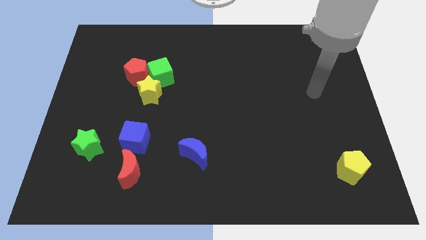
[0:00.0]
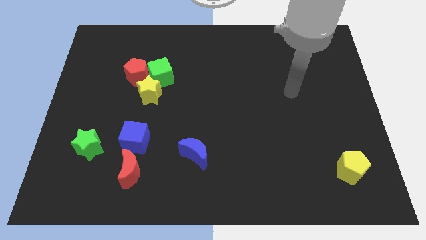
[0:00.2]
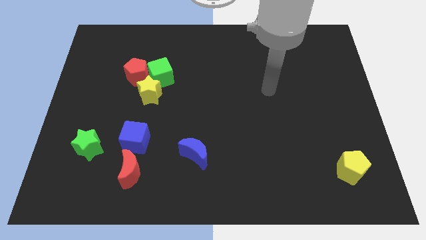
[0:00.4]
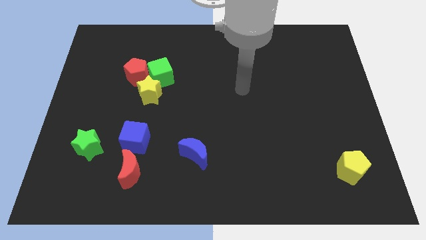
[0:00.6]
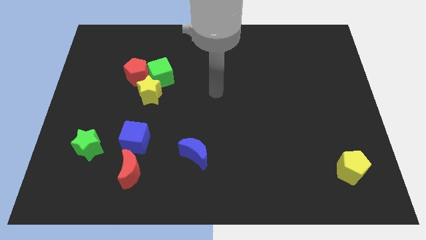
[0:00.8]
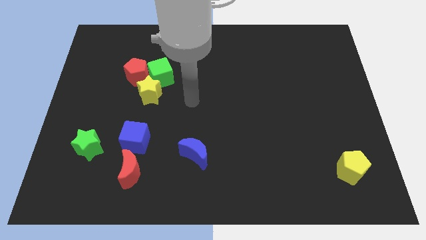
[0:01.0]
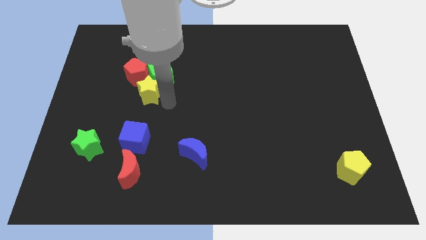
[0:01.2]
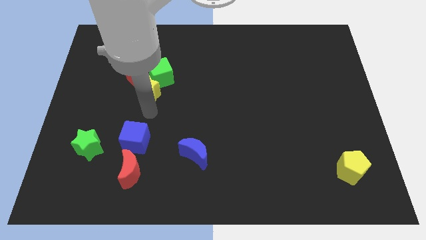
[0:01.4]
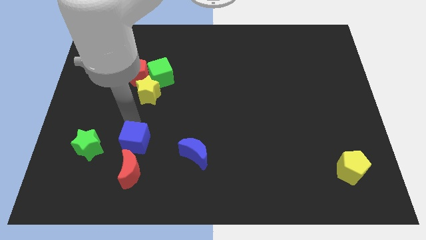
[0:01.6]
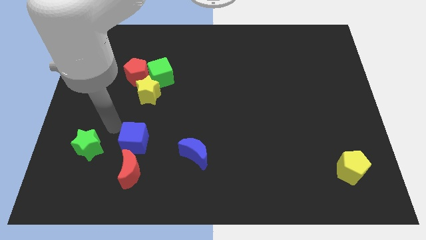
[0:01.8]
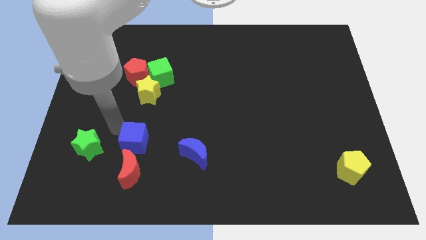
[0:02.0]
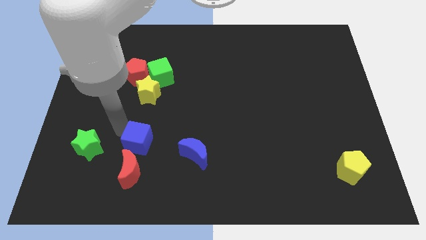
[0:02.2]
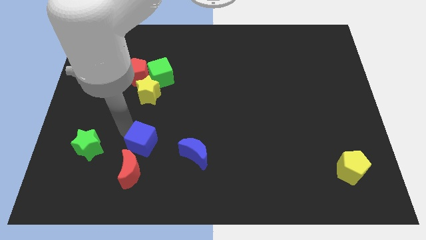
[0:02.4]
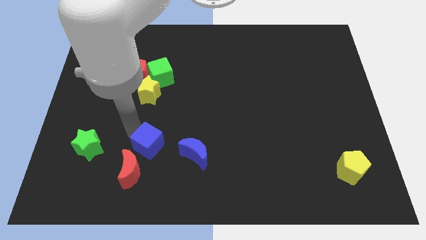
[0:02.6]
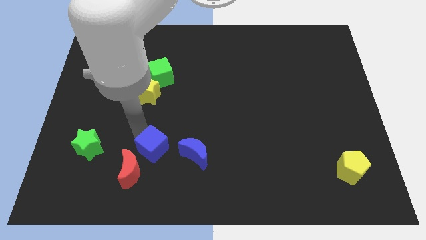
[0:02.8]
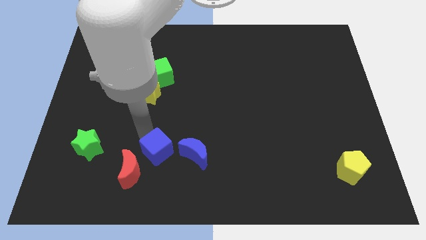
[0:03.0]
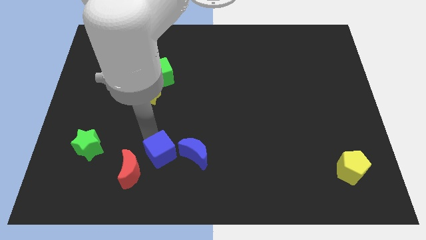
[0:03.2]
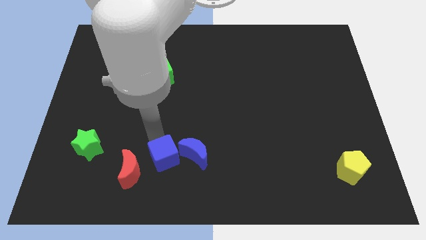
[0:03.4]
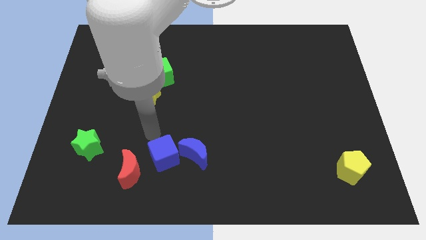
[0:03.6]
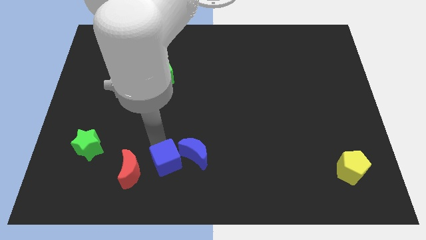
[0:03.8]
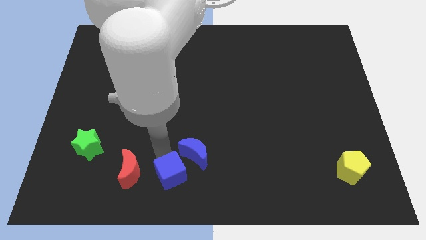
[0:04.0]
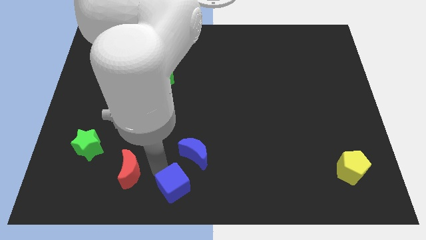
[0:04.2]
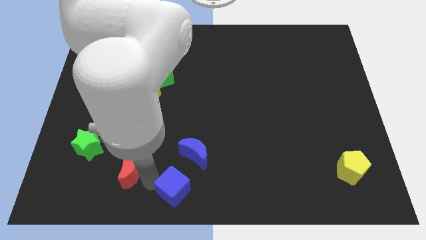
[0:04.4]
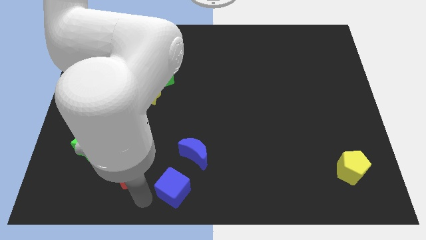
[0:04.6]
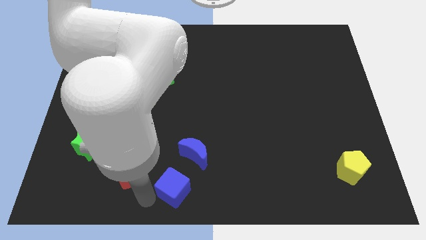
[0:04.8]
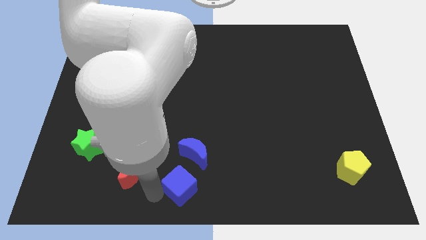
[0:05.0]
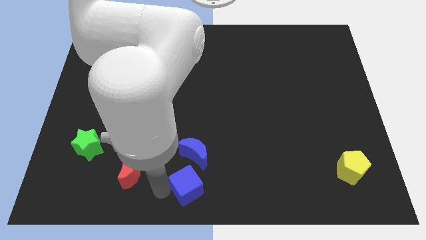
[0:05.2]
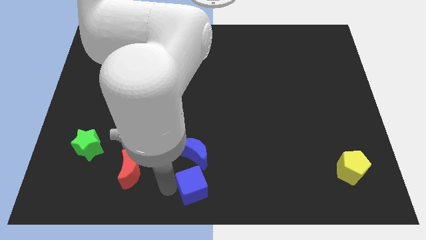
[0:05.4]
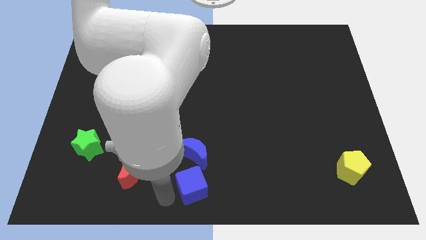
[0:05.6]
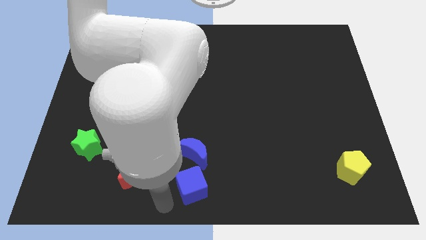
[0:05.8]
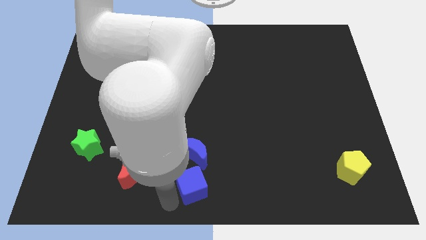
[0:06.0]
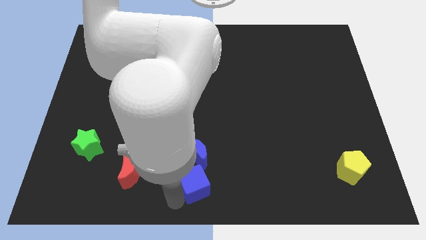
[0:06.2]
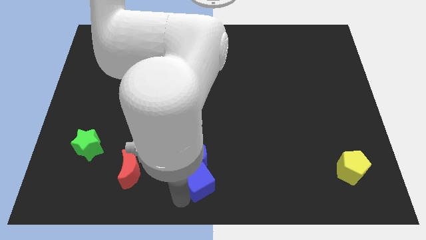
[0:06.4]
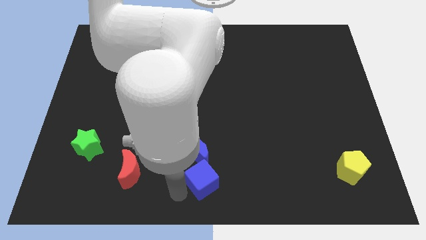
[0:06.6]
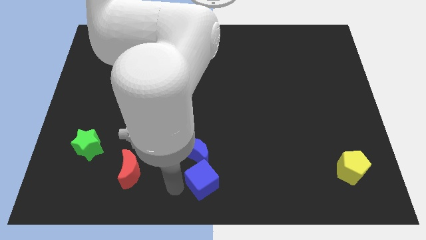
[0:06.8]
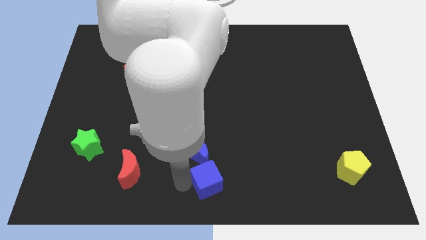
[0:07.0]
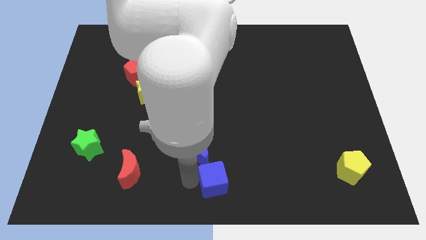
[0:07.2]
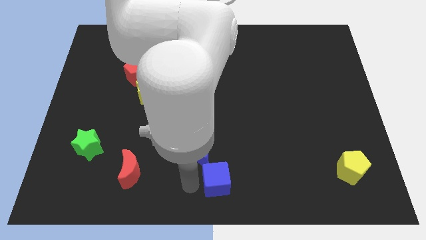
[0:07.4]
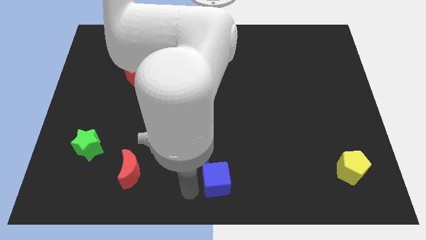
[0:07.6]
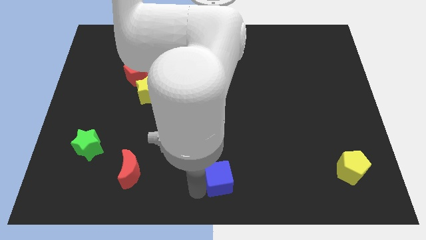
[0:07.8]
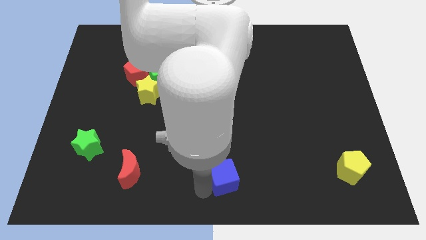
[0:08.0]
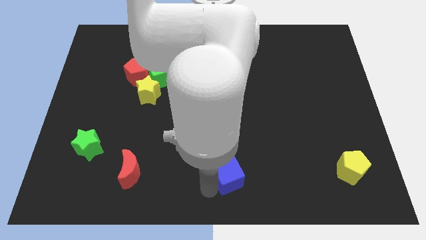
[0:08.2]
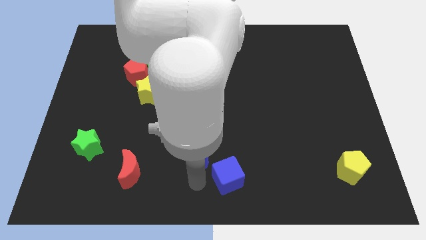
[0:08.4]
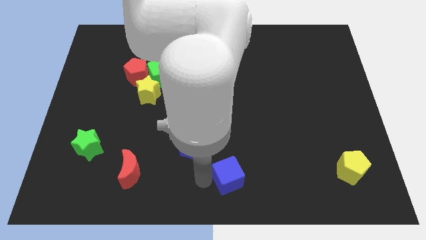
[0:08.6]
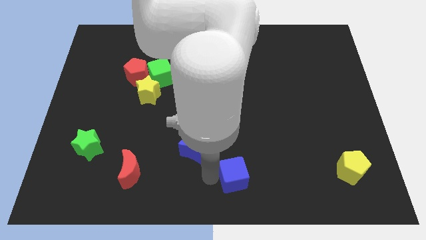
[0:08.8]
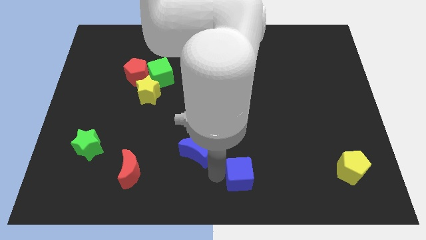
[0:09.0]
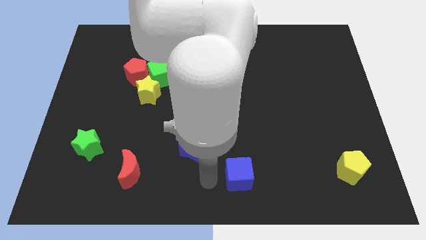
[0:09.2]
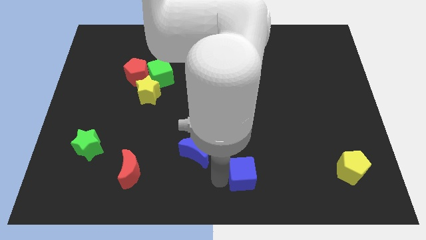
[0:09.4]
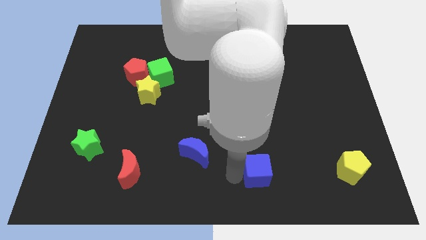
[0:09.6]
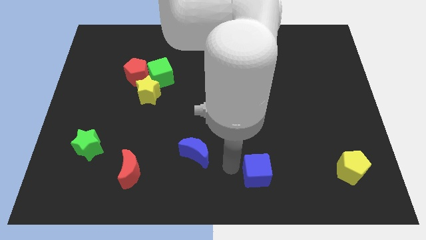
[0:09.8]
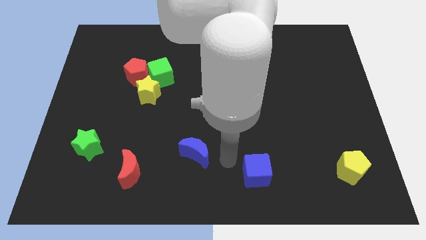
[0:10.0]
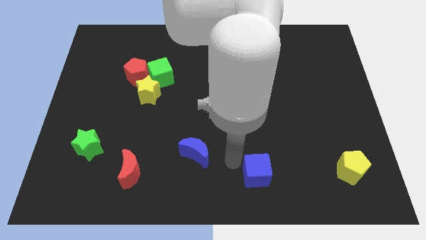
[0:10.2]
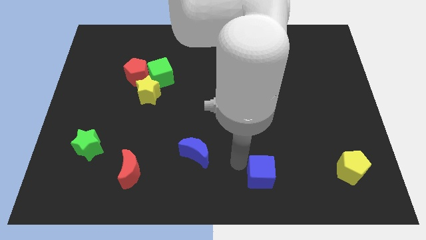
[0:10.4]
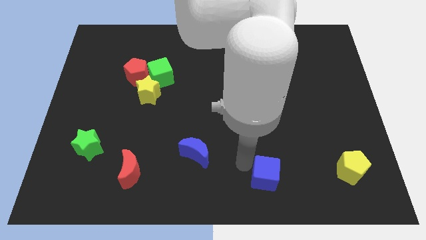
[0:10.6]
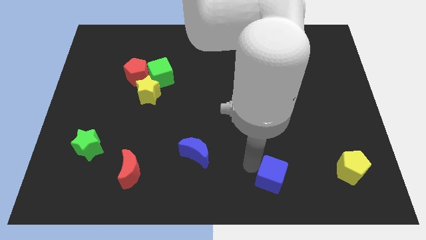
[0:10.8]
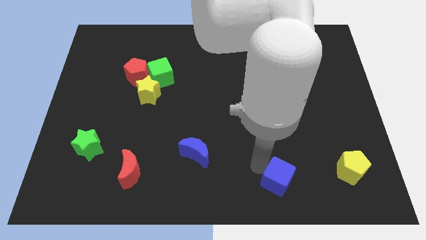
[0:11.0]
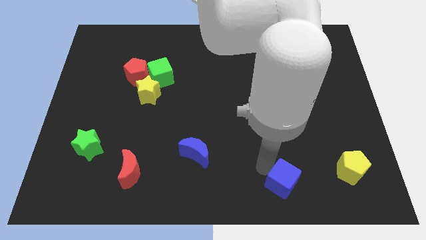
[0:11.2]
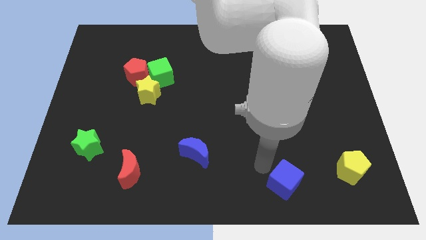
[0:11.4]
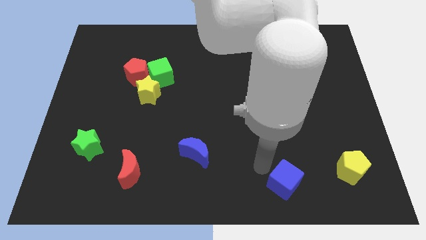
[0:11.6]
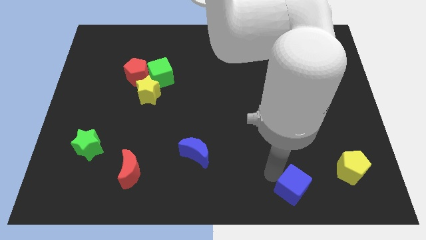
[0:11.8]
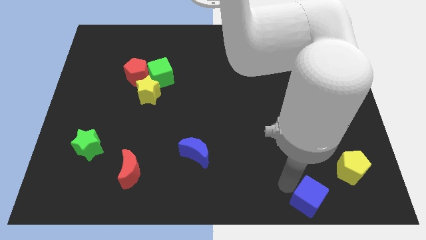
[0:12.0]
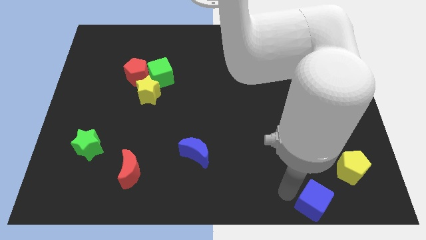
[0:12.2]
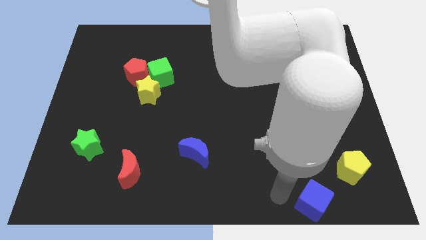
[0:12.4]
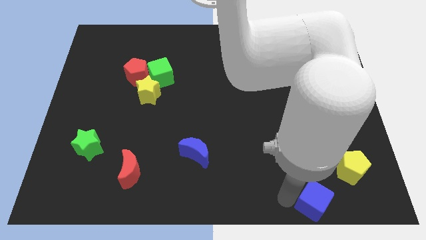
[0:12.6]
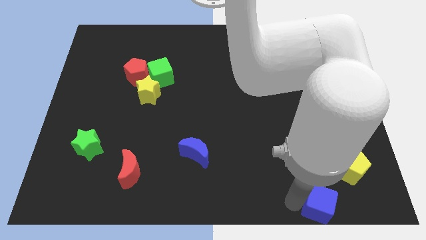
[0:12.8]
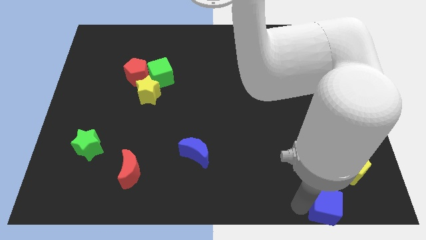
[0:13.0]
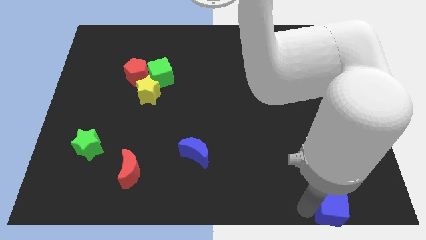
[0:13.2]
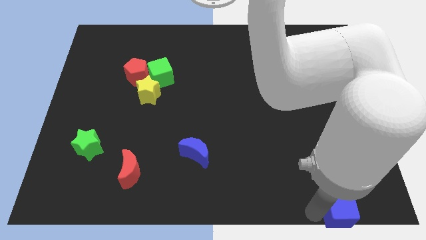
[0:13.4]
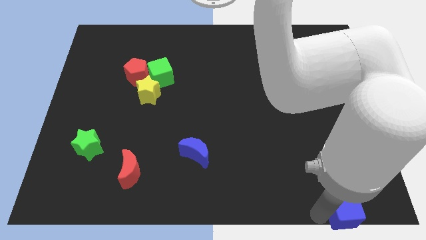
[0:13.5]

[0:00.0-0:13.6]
slide the blue cube to the bottom right corner
